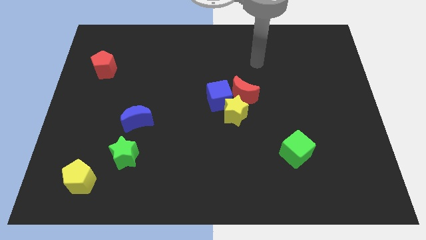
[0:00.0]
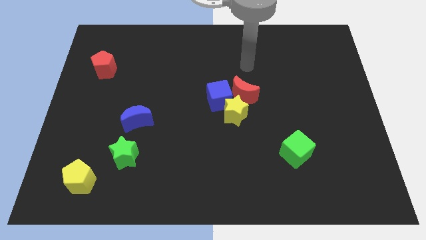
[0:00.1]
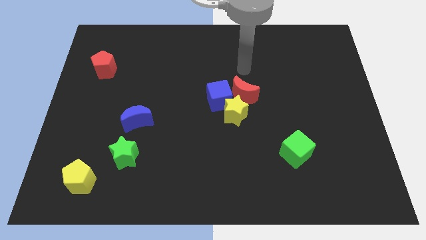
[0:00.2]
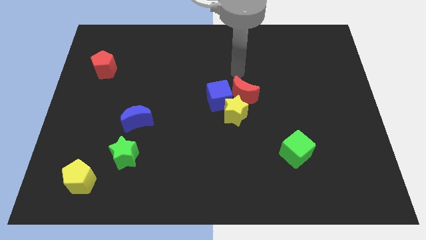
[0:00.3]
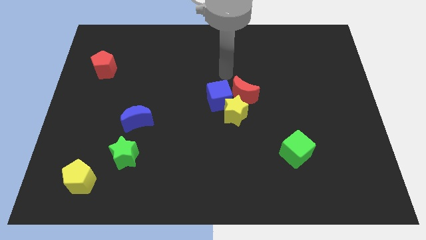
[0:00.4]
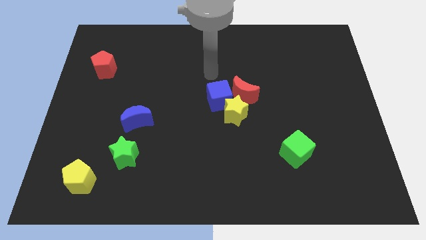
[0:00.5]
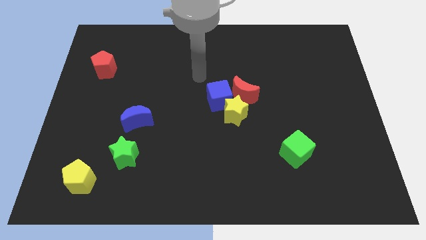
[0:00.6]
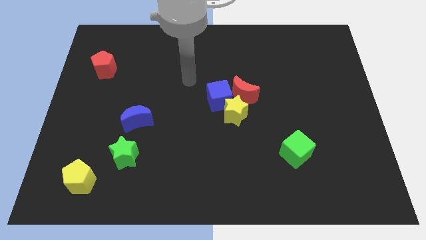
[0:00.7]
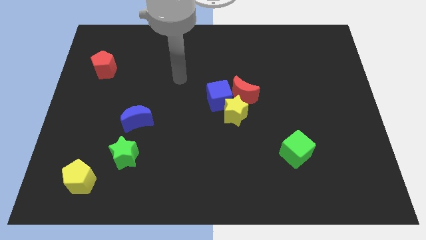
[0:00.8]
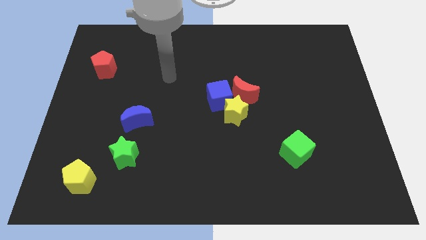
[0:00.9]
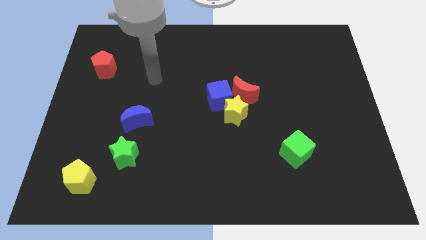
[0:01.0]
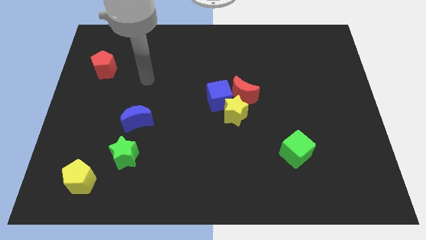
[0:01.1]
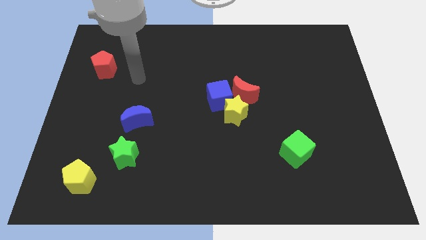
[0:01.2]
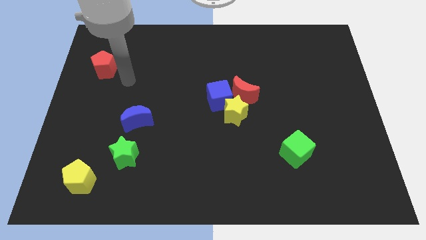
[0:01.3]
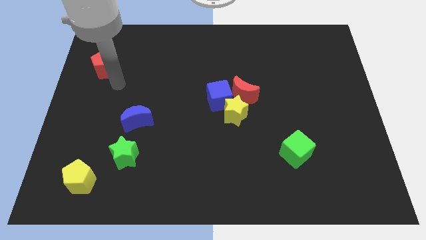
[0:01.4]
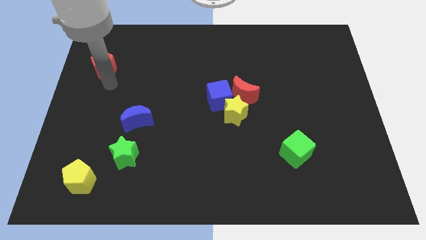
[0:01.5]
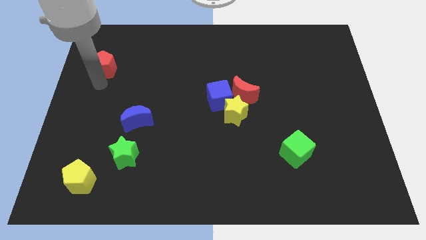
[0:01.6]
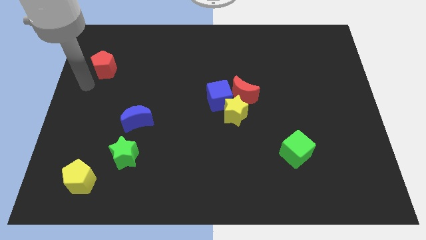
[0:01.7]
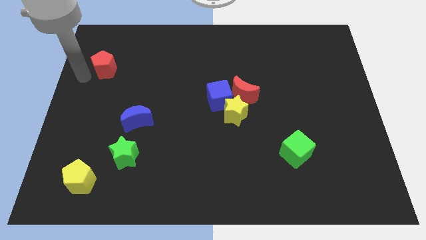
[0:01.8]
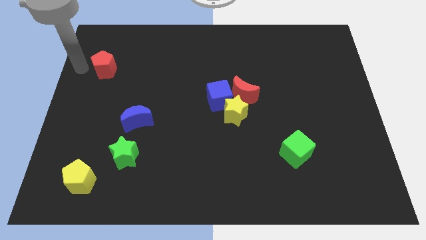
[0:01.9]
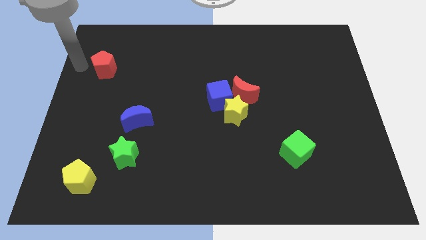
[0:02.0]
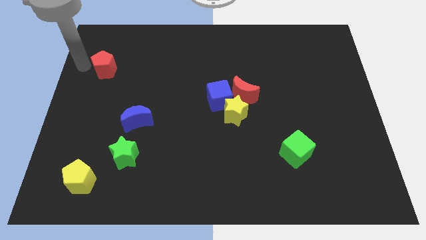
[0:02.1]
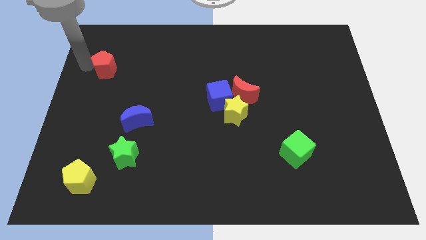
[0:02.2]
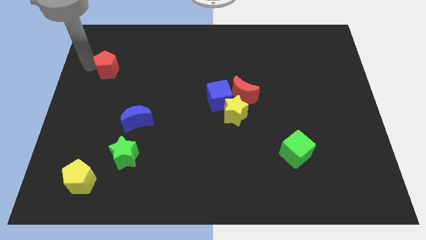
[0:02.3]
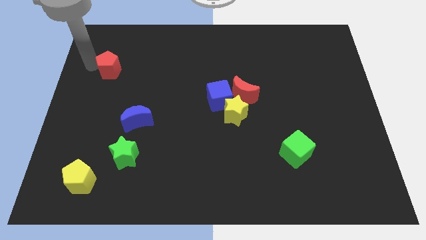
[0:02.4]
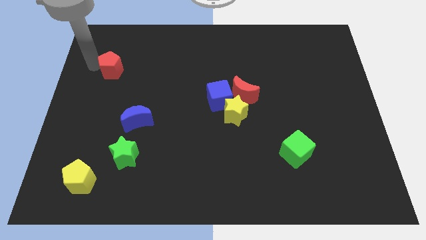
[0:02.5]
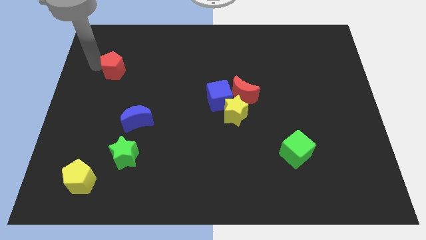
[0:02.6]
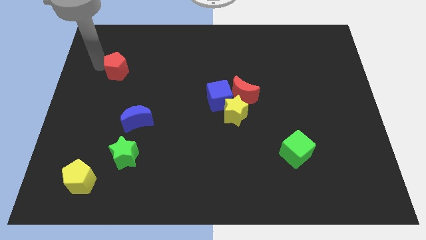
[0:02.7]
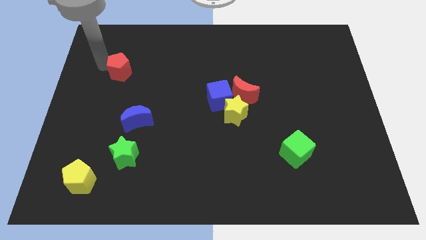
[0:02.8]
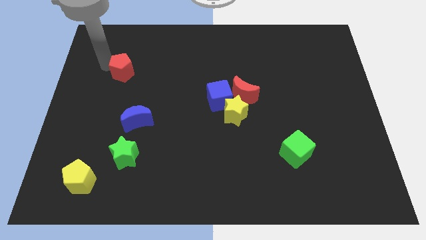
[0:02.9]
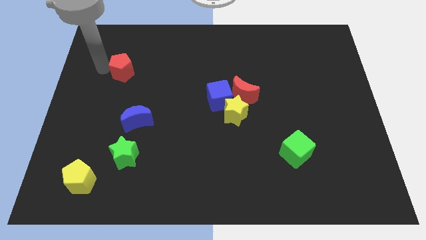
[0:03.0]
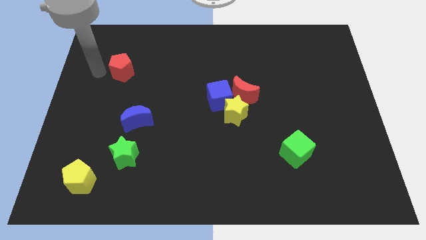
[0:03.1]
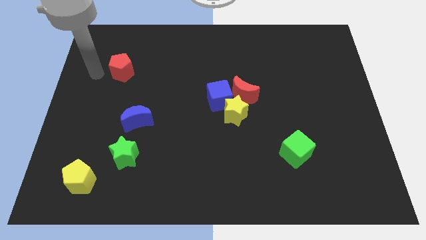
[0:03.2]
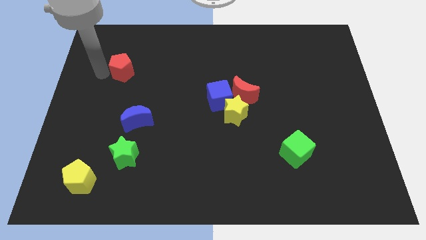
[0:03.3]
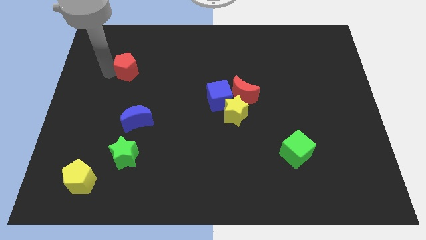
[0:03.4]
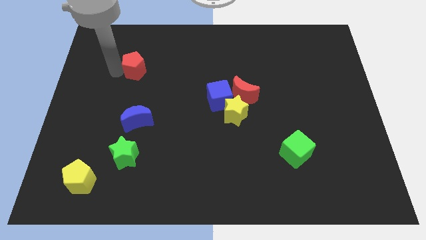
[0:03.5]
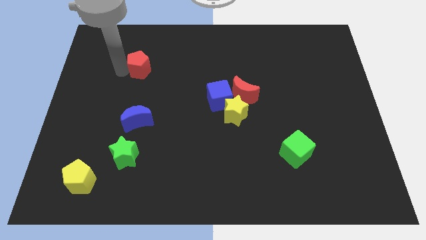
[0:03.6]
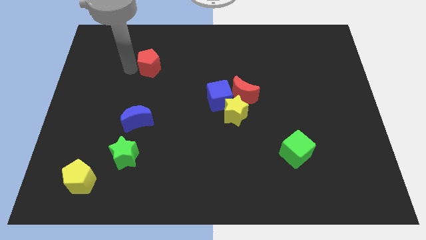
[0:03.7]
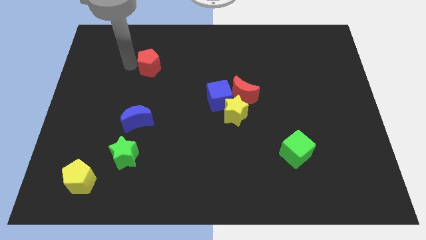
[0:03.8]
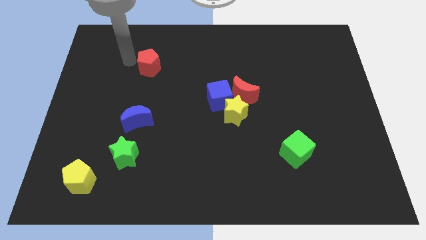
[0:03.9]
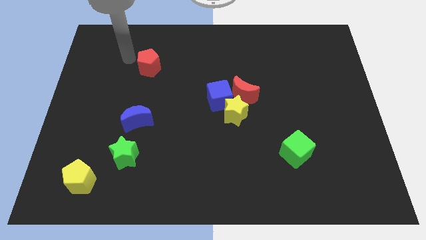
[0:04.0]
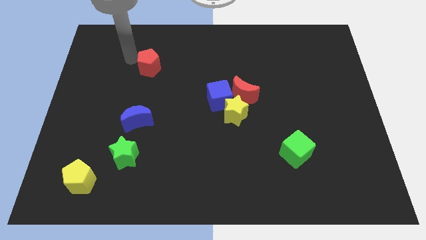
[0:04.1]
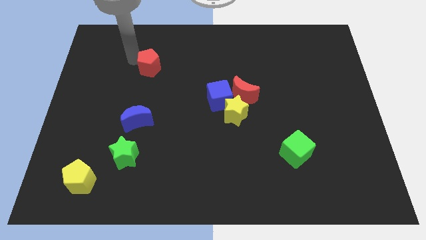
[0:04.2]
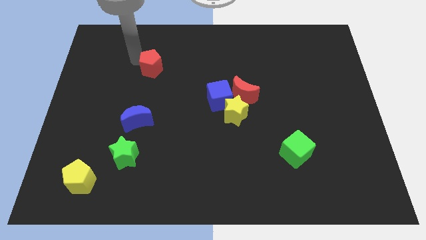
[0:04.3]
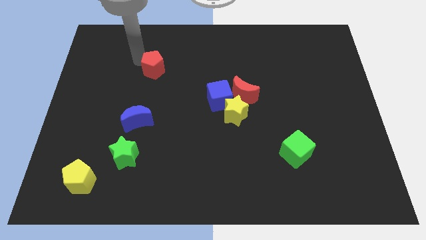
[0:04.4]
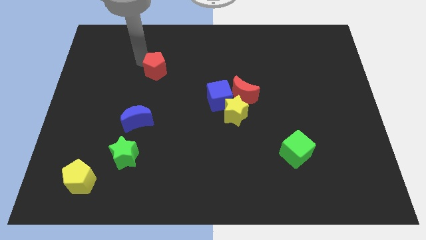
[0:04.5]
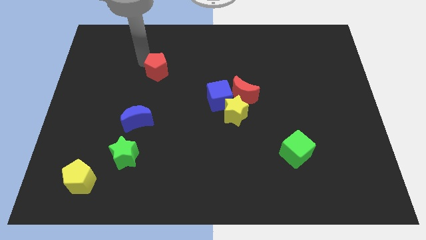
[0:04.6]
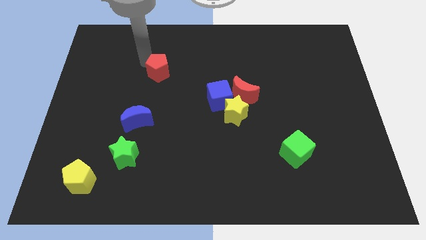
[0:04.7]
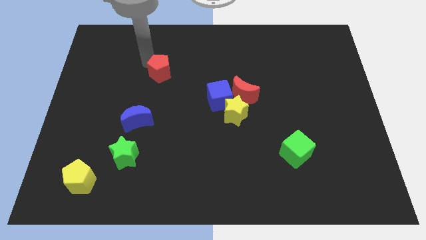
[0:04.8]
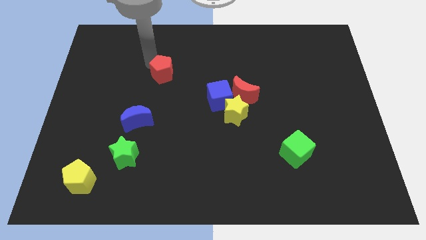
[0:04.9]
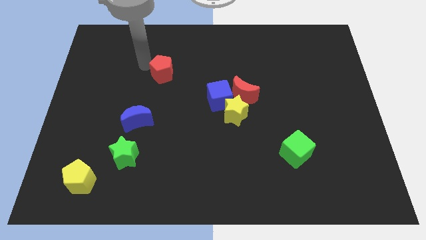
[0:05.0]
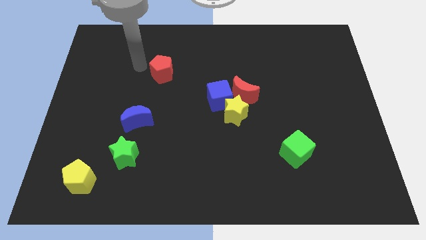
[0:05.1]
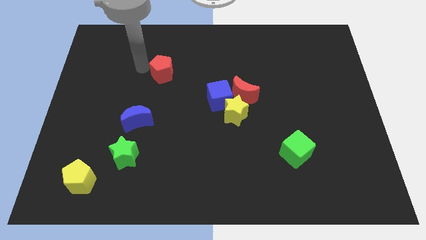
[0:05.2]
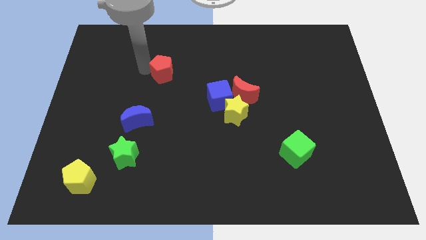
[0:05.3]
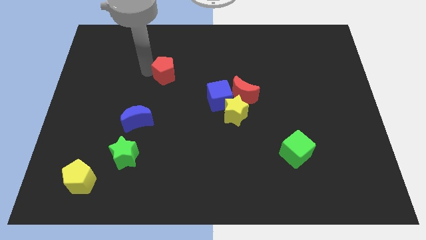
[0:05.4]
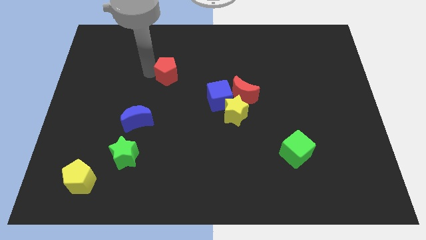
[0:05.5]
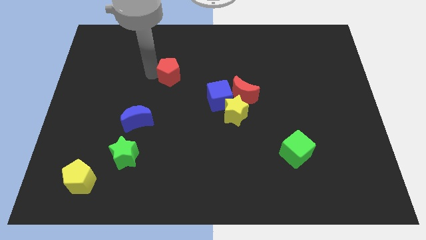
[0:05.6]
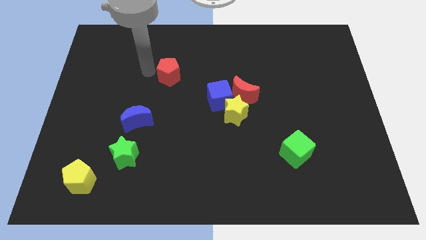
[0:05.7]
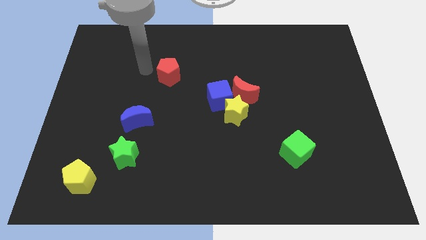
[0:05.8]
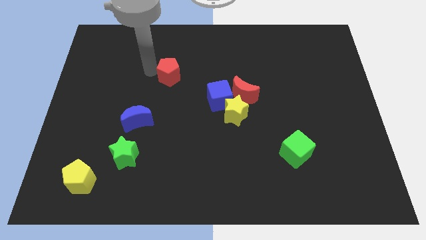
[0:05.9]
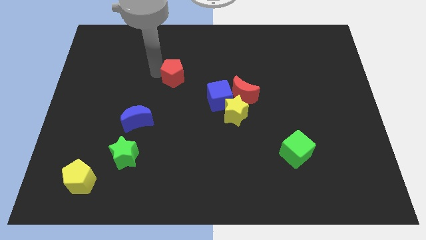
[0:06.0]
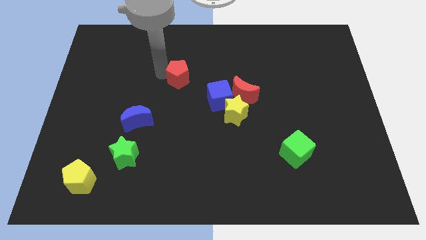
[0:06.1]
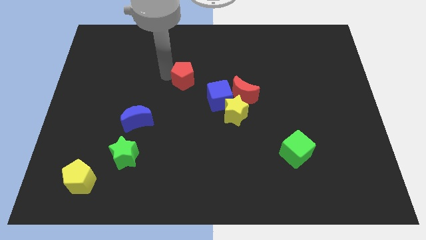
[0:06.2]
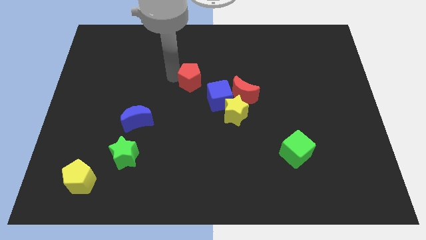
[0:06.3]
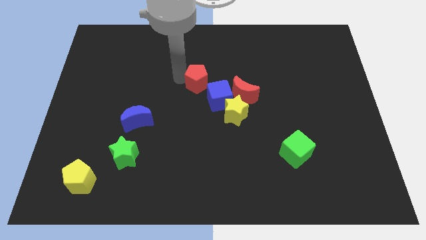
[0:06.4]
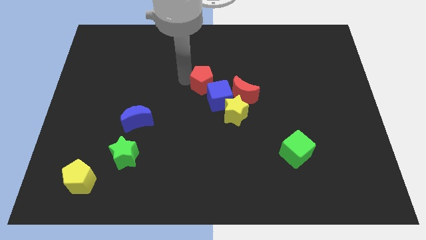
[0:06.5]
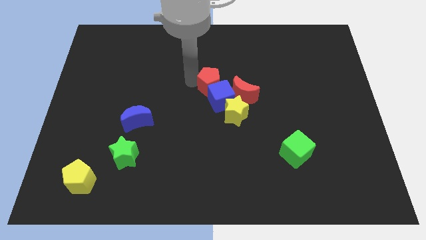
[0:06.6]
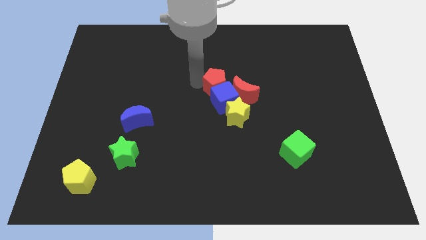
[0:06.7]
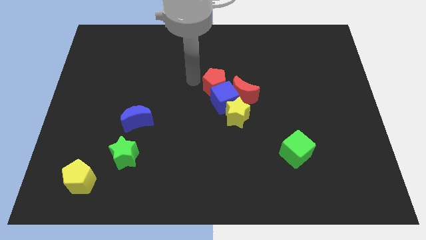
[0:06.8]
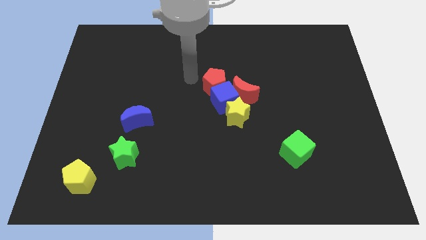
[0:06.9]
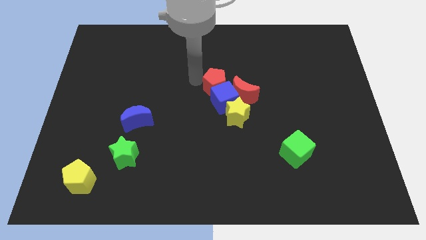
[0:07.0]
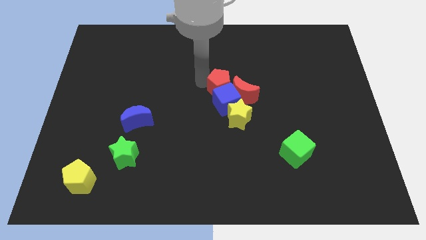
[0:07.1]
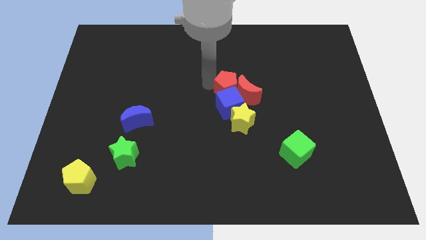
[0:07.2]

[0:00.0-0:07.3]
slide the red pentagon next to the red moon
